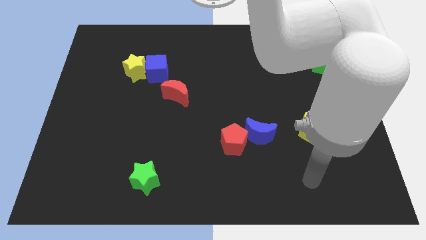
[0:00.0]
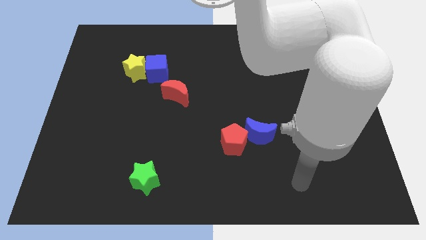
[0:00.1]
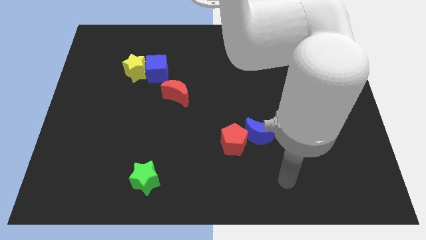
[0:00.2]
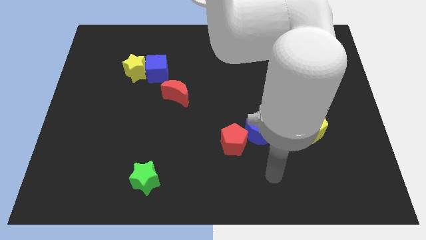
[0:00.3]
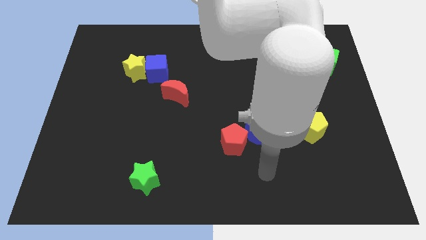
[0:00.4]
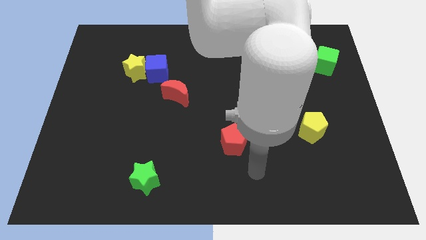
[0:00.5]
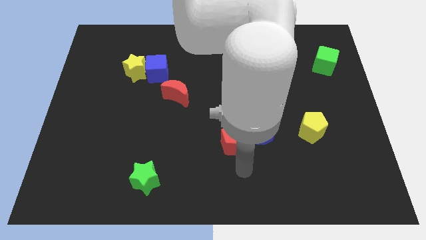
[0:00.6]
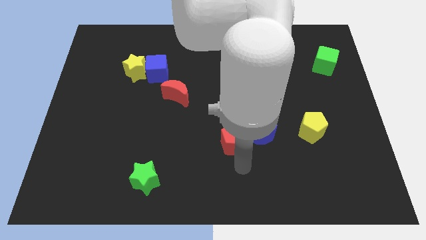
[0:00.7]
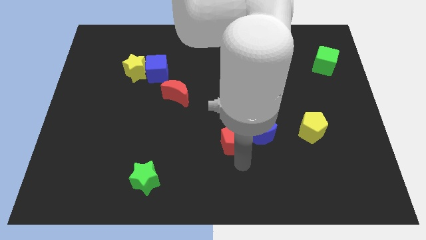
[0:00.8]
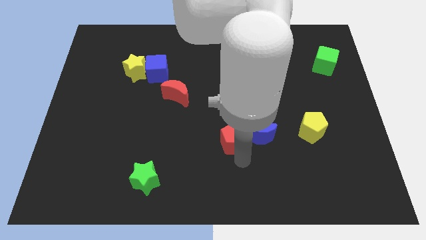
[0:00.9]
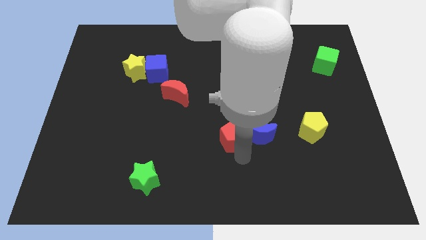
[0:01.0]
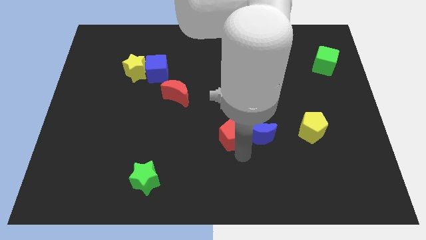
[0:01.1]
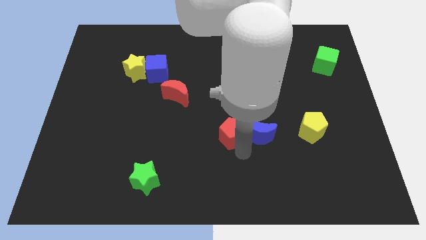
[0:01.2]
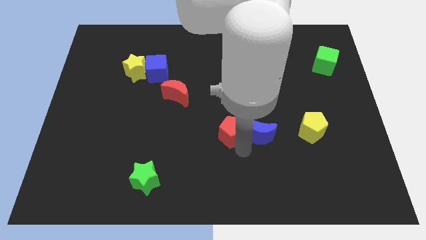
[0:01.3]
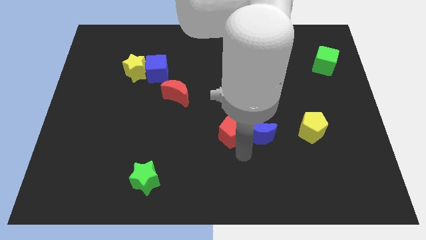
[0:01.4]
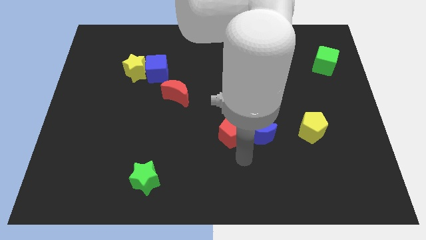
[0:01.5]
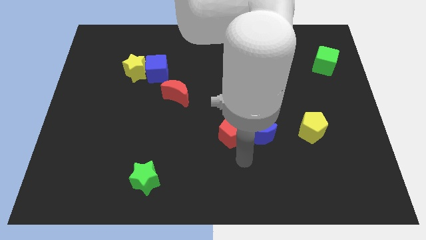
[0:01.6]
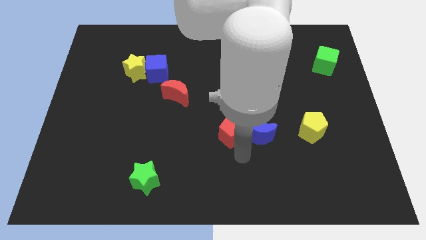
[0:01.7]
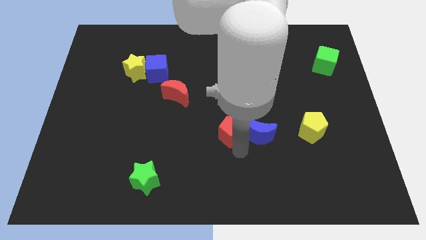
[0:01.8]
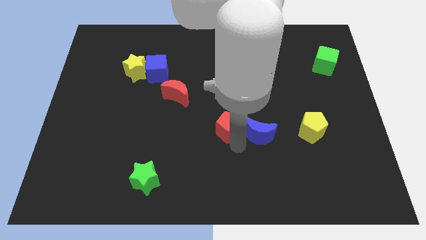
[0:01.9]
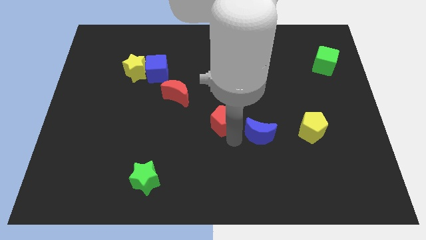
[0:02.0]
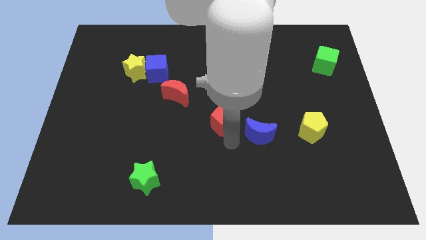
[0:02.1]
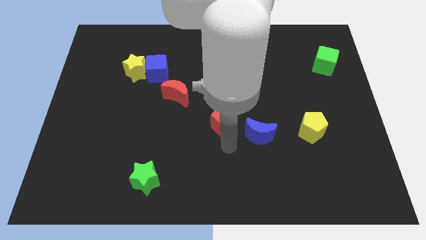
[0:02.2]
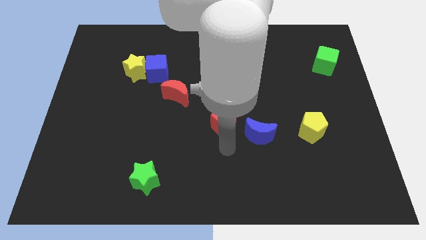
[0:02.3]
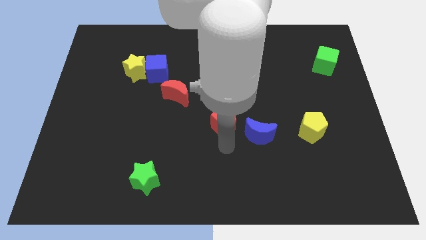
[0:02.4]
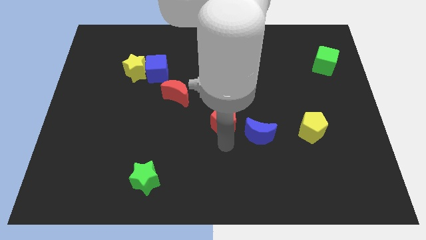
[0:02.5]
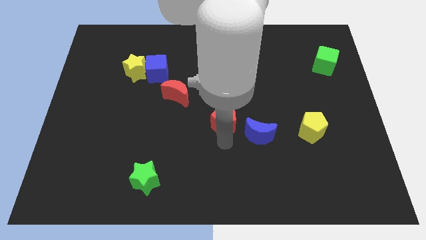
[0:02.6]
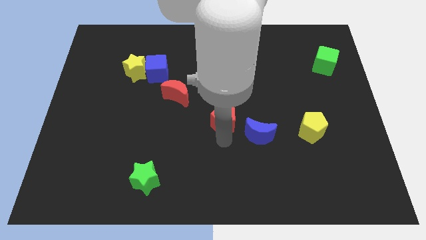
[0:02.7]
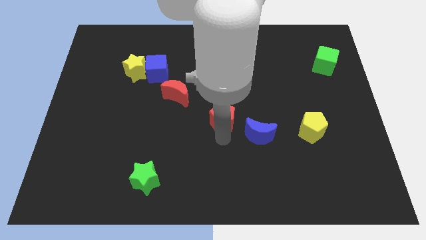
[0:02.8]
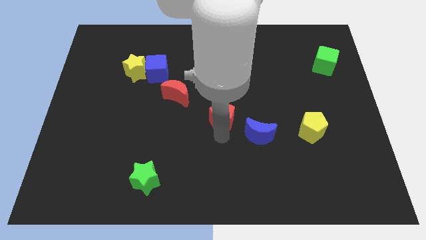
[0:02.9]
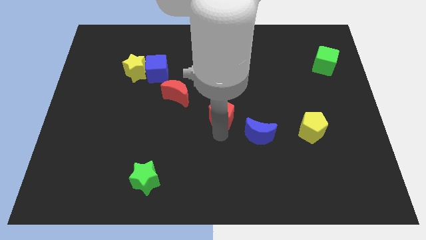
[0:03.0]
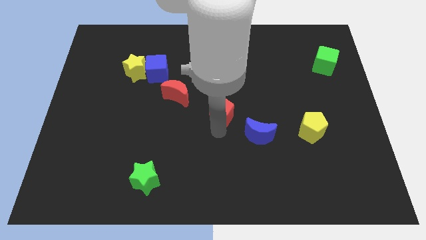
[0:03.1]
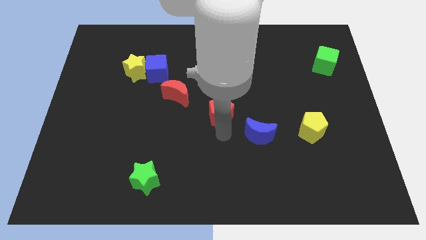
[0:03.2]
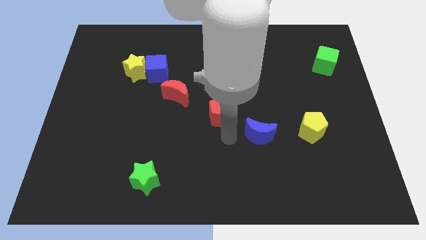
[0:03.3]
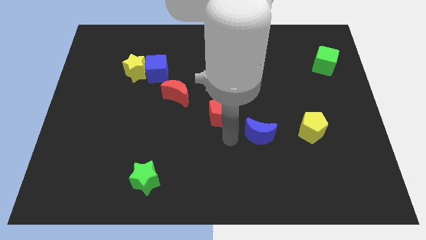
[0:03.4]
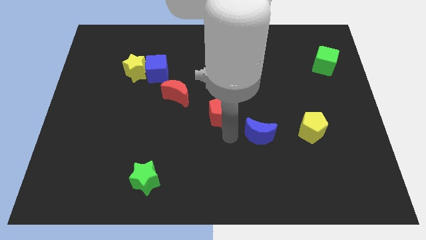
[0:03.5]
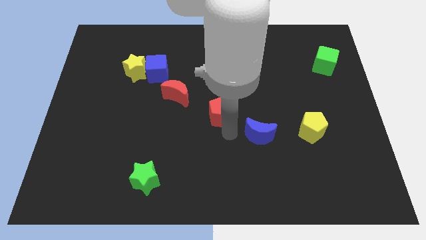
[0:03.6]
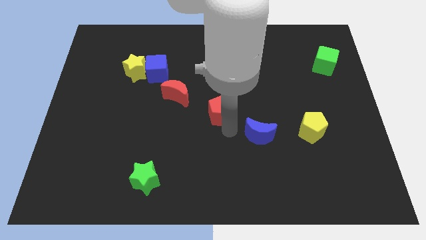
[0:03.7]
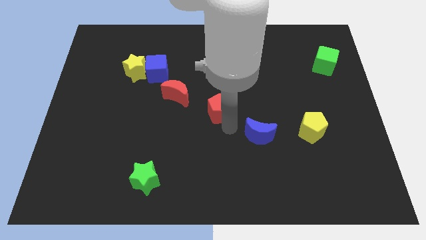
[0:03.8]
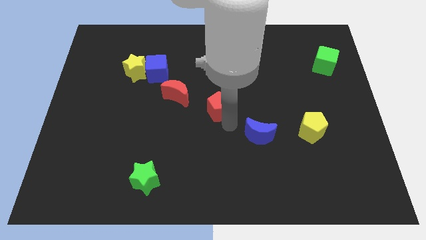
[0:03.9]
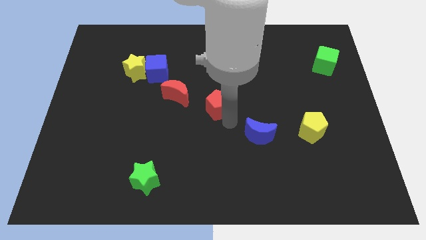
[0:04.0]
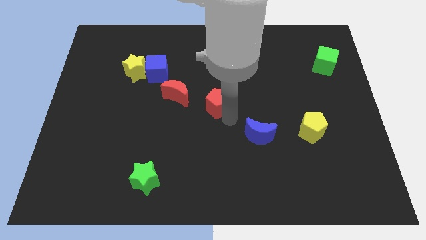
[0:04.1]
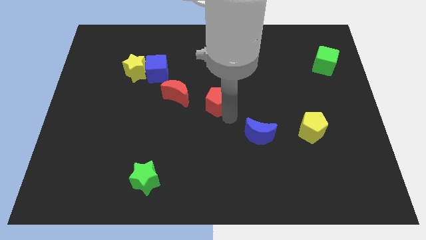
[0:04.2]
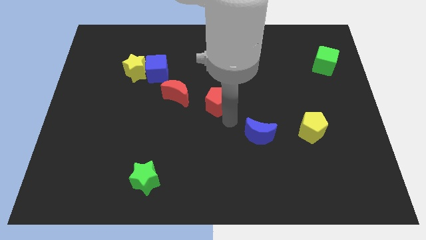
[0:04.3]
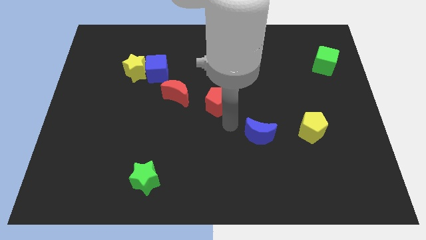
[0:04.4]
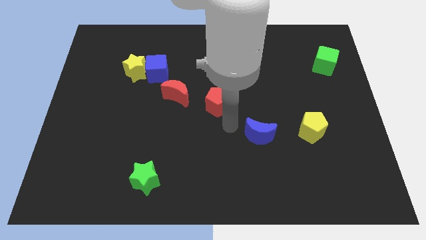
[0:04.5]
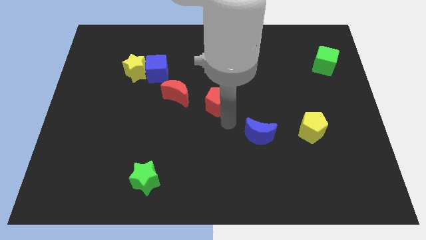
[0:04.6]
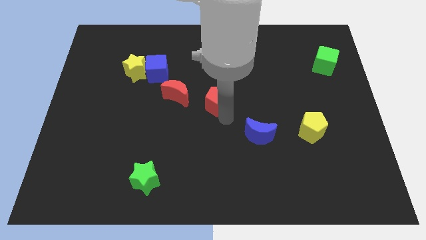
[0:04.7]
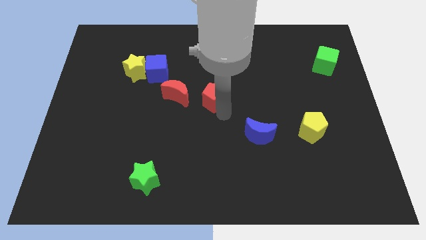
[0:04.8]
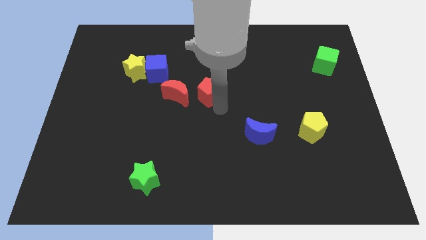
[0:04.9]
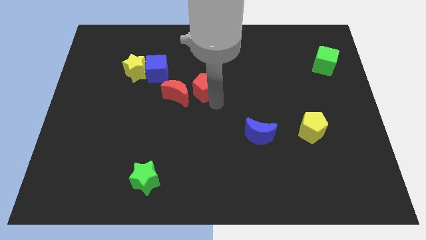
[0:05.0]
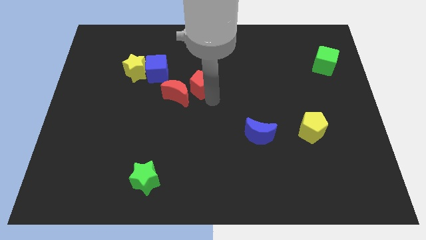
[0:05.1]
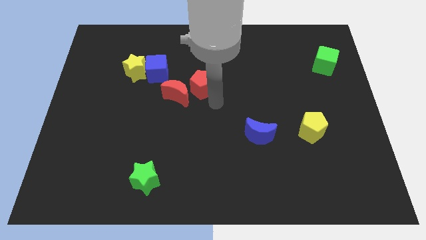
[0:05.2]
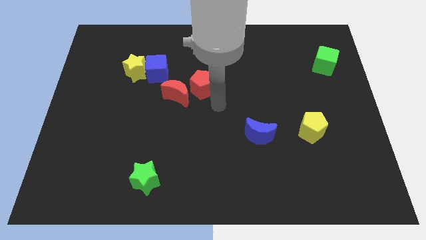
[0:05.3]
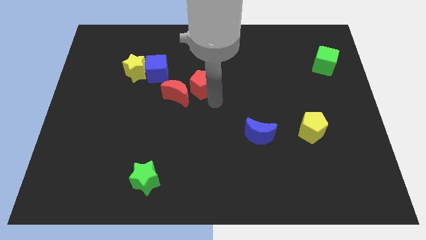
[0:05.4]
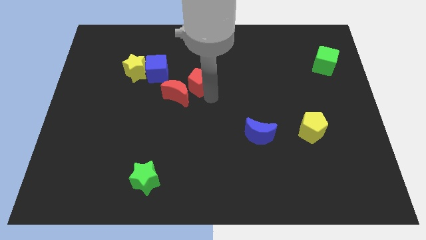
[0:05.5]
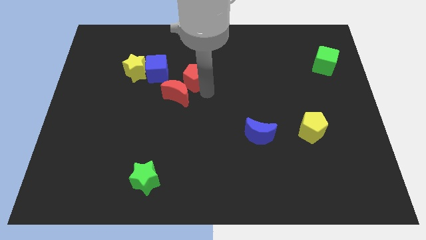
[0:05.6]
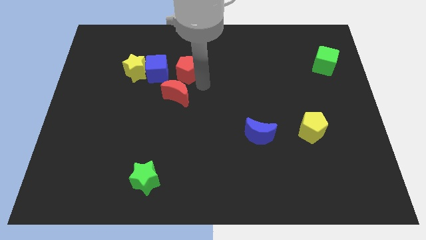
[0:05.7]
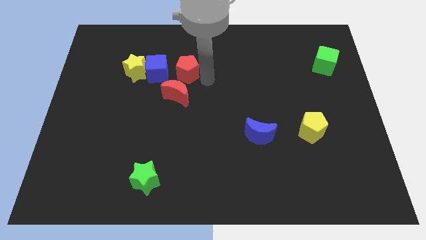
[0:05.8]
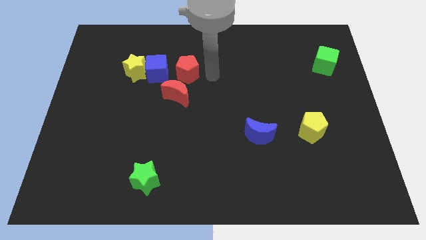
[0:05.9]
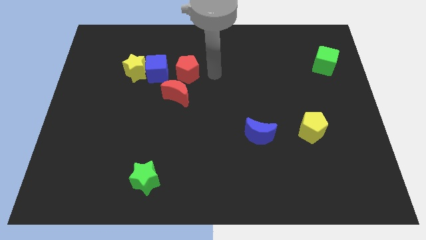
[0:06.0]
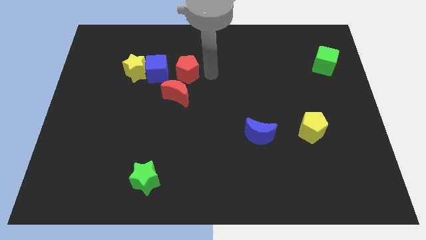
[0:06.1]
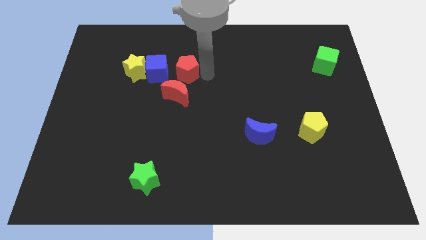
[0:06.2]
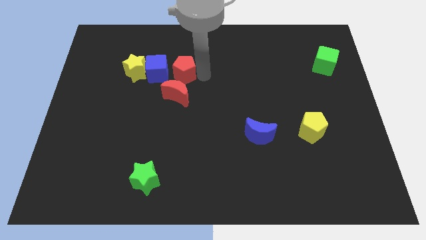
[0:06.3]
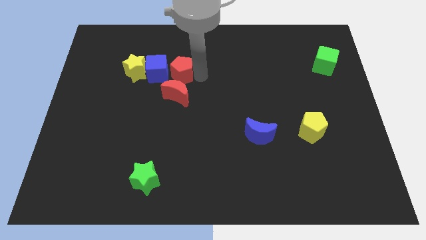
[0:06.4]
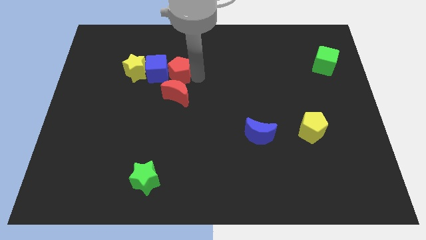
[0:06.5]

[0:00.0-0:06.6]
move the red pentagon to the blue cube
